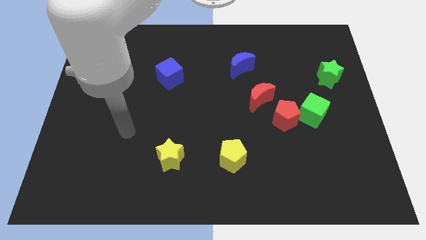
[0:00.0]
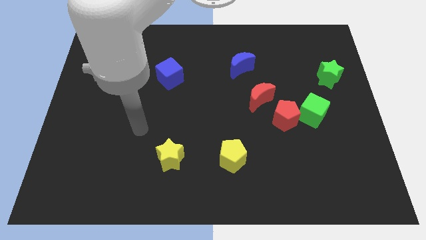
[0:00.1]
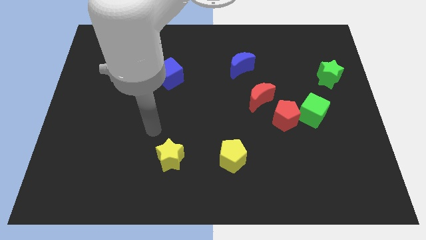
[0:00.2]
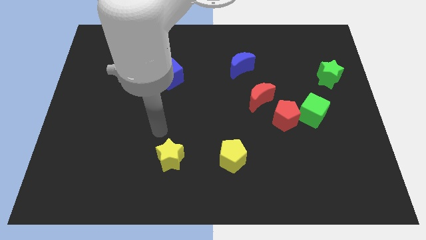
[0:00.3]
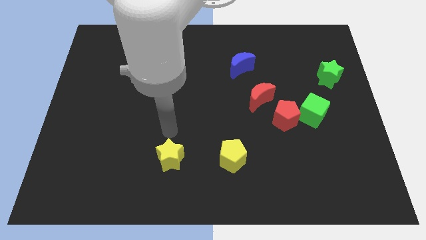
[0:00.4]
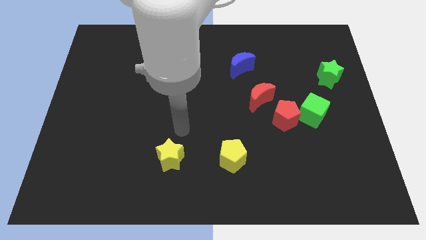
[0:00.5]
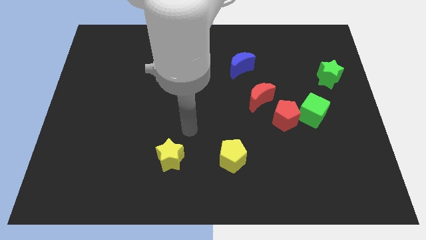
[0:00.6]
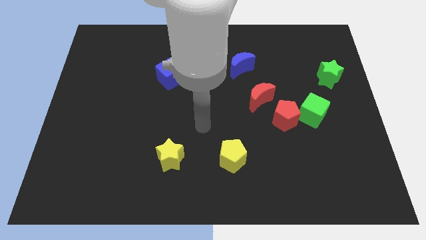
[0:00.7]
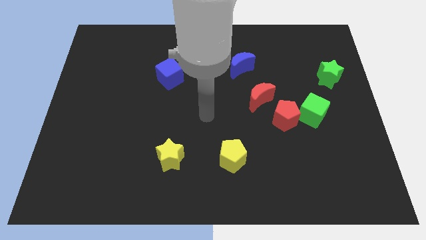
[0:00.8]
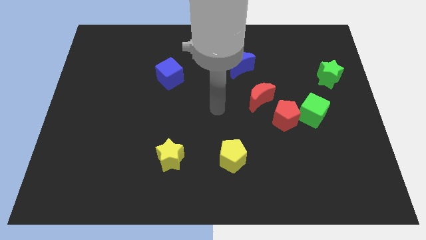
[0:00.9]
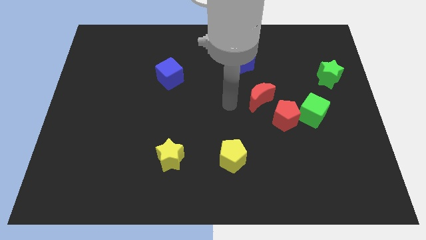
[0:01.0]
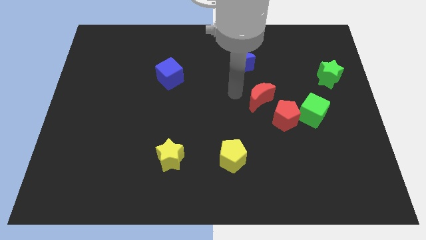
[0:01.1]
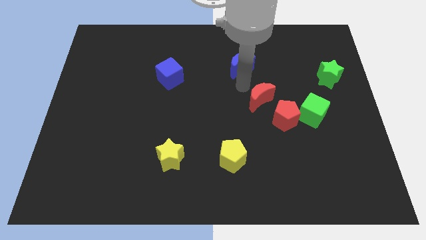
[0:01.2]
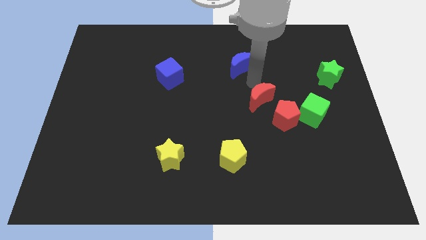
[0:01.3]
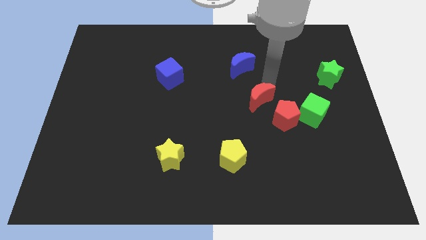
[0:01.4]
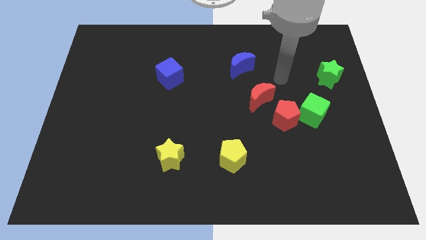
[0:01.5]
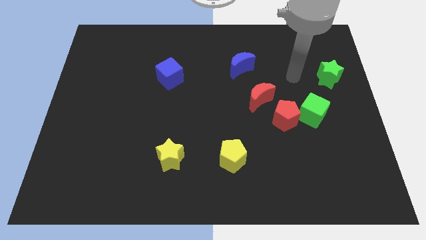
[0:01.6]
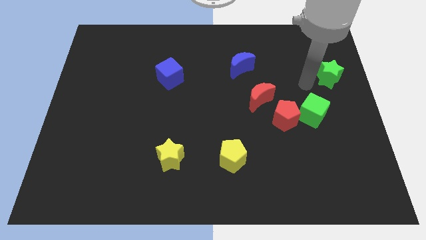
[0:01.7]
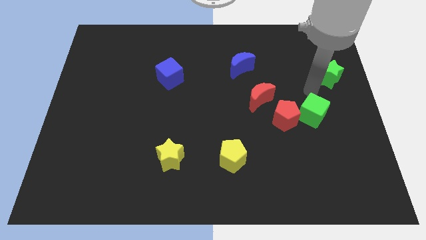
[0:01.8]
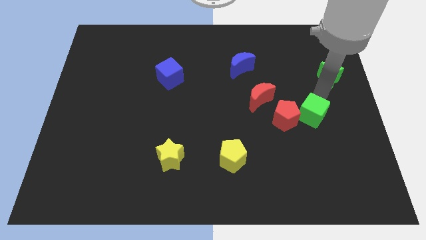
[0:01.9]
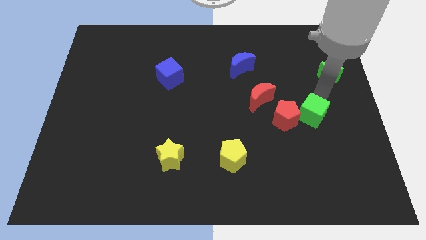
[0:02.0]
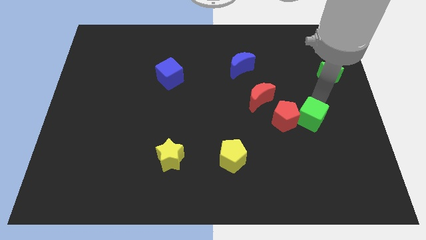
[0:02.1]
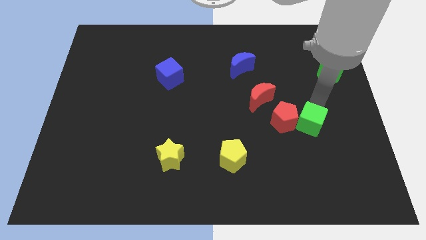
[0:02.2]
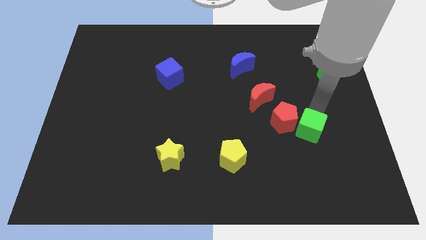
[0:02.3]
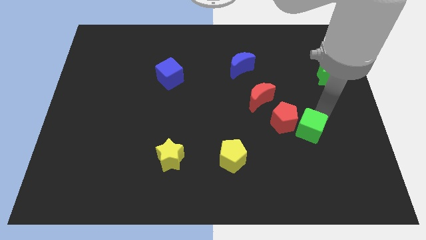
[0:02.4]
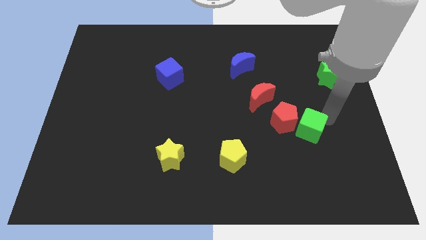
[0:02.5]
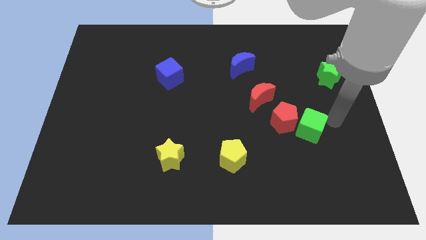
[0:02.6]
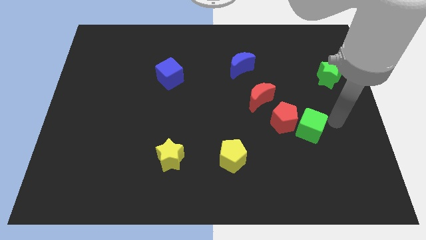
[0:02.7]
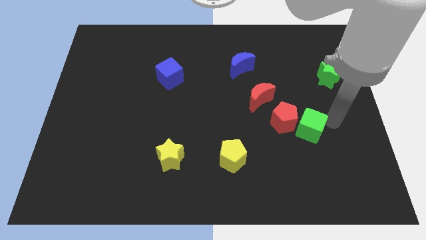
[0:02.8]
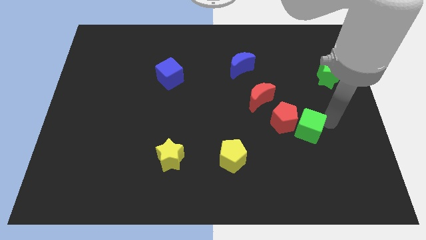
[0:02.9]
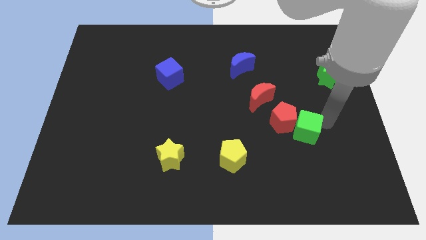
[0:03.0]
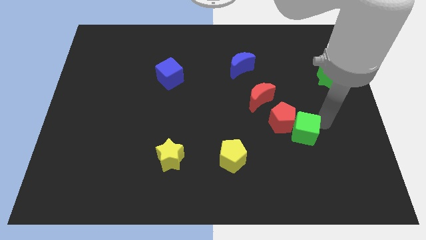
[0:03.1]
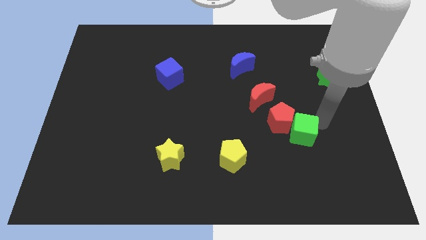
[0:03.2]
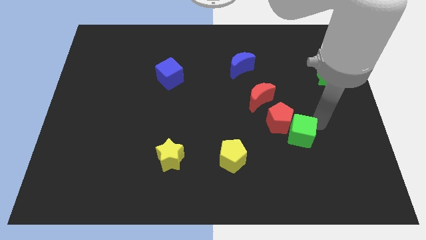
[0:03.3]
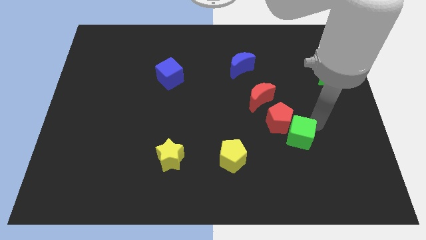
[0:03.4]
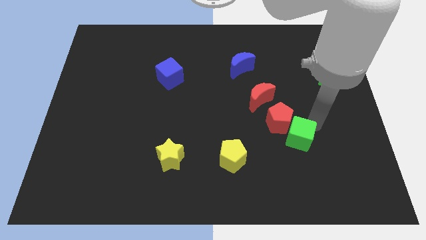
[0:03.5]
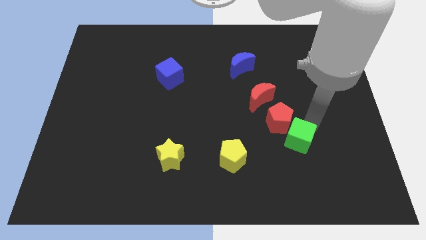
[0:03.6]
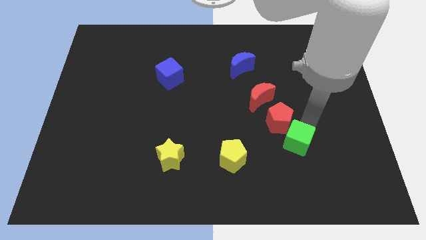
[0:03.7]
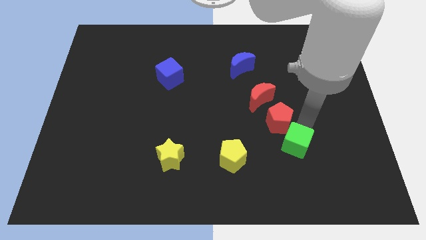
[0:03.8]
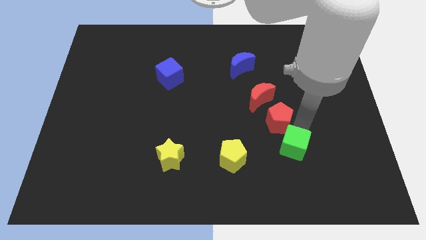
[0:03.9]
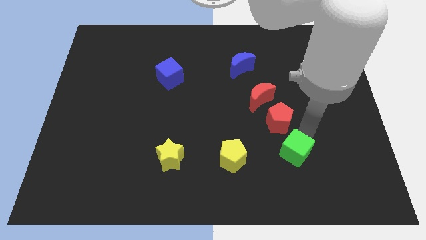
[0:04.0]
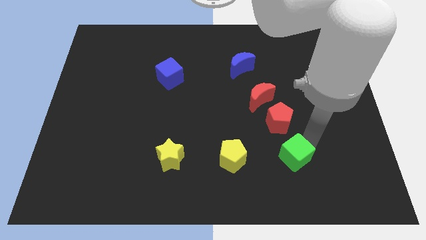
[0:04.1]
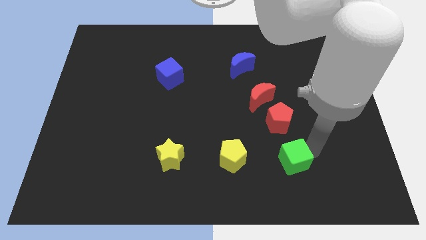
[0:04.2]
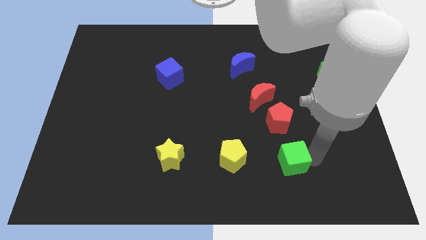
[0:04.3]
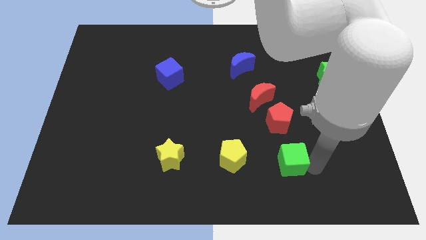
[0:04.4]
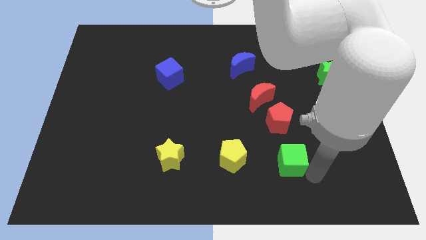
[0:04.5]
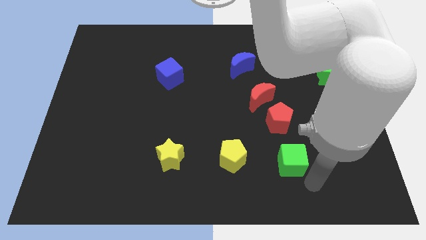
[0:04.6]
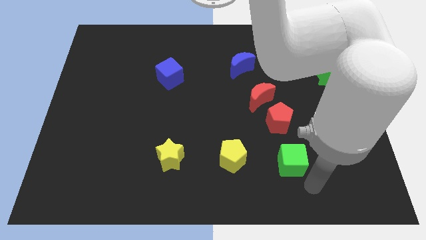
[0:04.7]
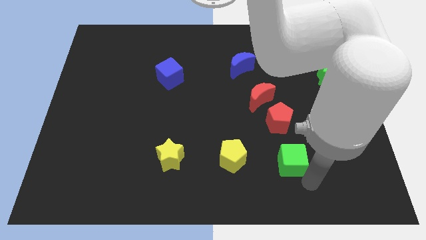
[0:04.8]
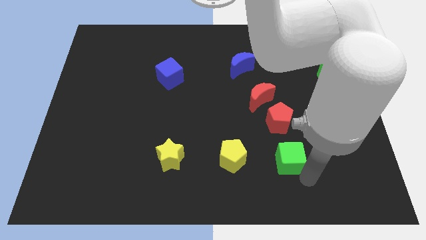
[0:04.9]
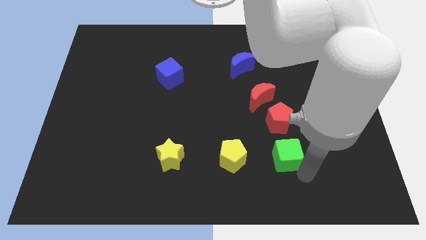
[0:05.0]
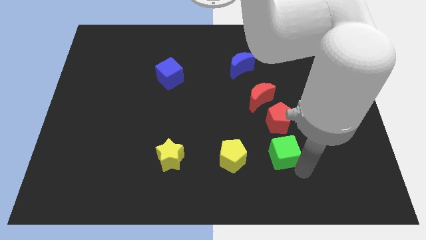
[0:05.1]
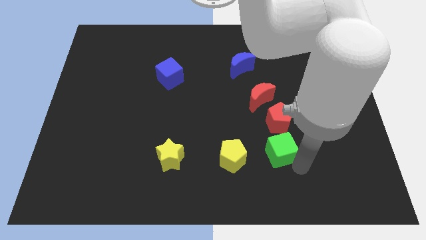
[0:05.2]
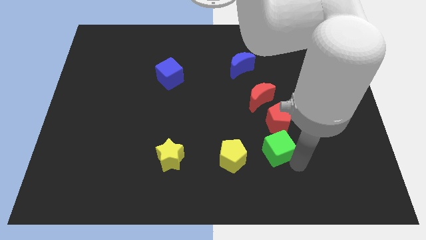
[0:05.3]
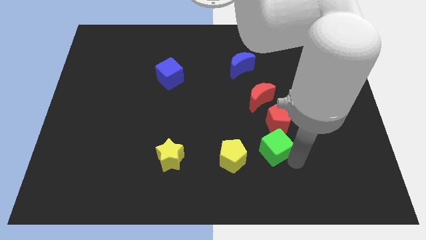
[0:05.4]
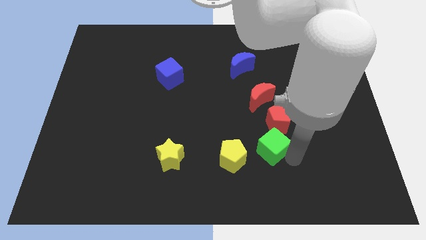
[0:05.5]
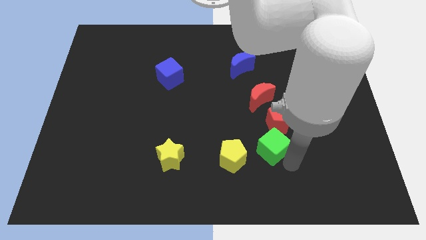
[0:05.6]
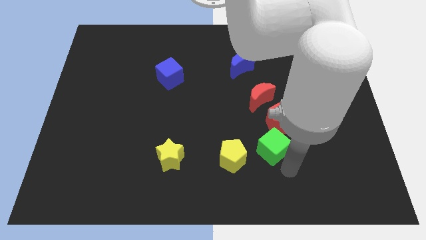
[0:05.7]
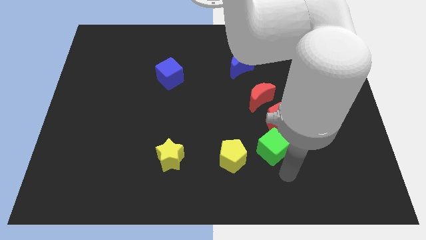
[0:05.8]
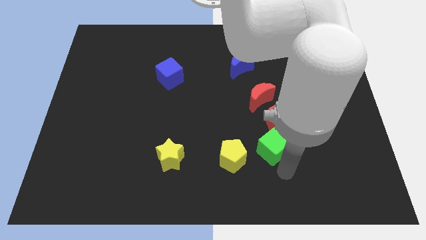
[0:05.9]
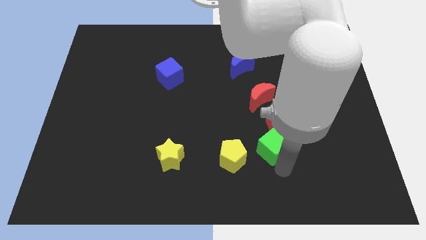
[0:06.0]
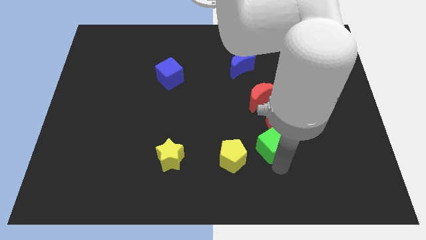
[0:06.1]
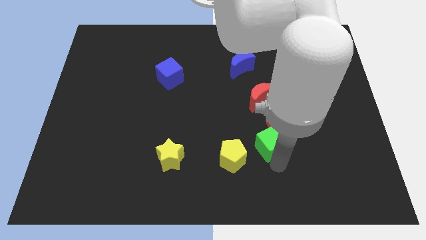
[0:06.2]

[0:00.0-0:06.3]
push the green cube slightly to the left

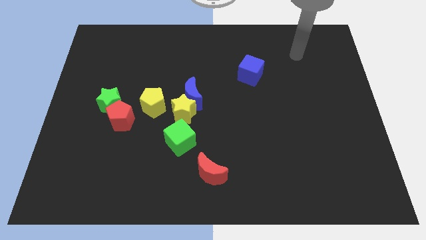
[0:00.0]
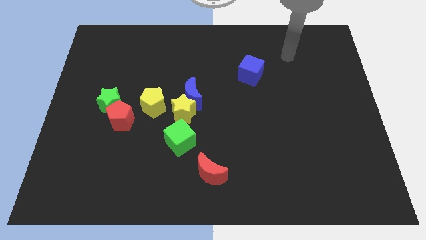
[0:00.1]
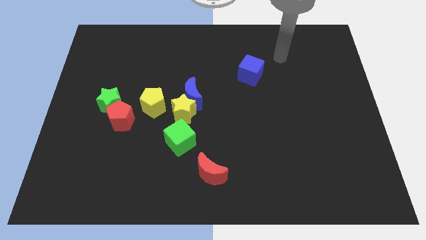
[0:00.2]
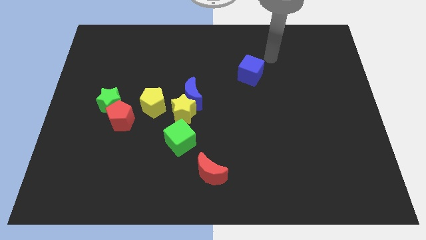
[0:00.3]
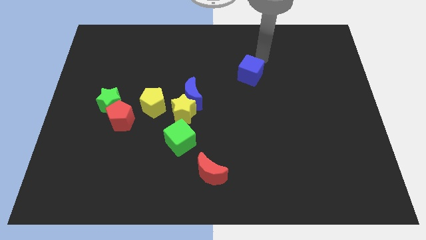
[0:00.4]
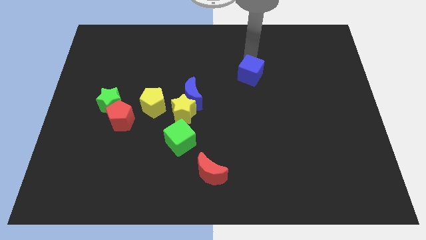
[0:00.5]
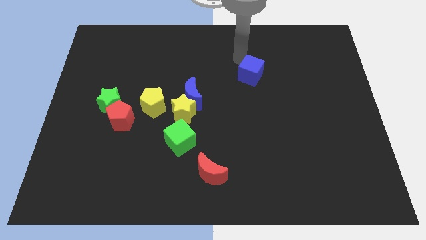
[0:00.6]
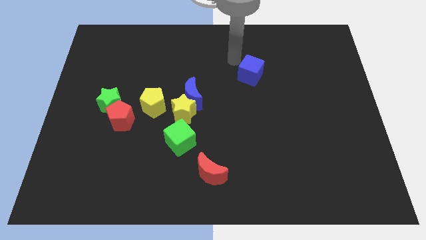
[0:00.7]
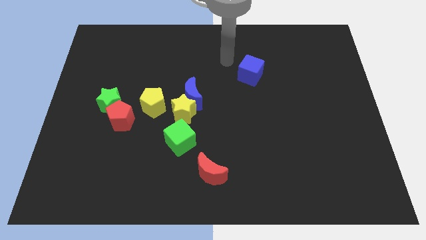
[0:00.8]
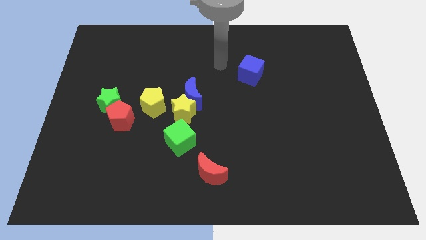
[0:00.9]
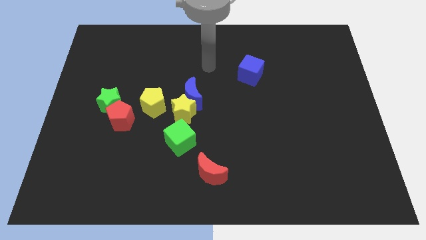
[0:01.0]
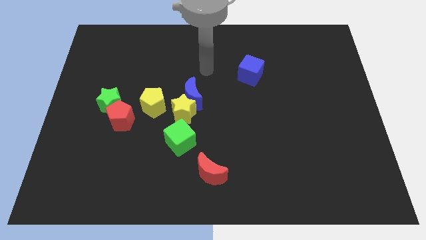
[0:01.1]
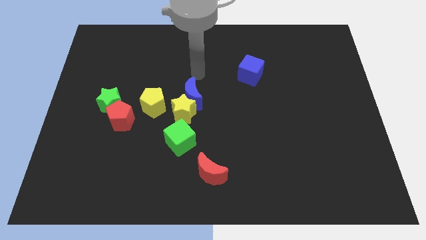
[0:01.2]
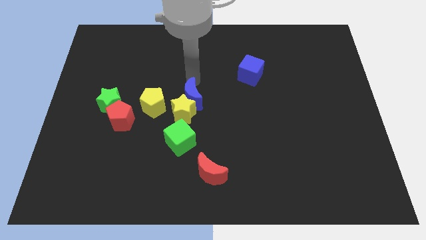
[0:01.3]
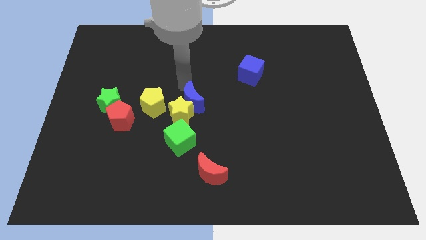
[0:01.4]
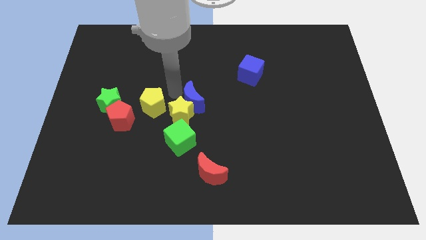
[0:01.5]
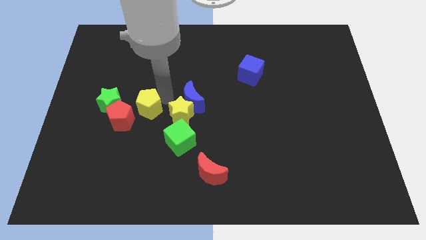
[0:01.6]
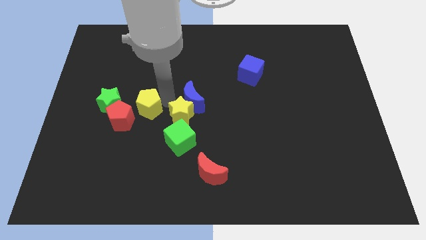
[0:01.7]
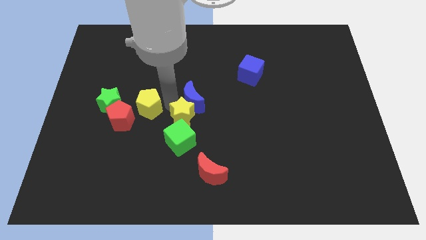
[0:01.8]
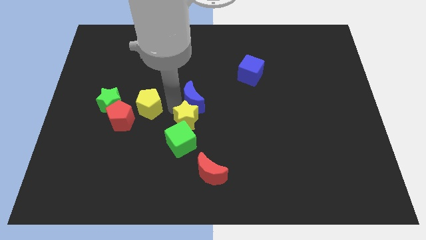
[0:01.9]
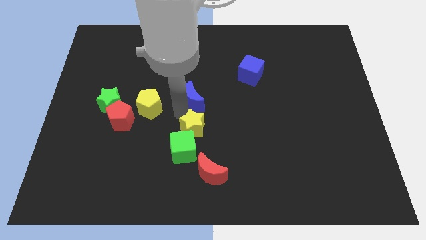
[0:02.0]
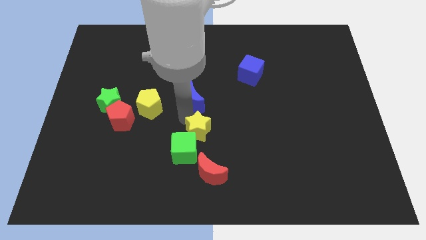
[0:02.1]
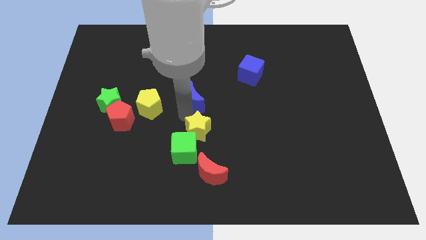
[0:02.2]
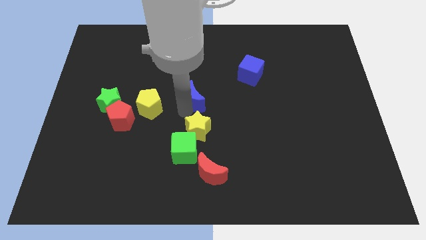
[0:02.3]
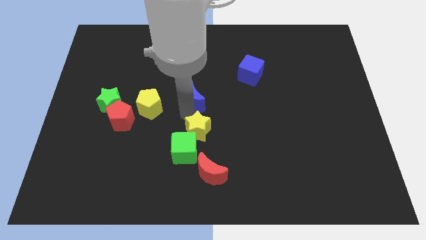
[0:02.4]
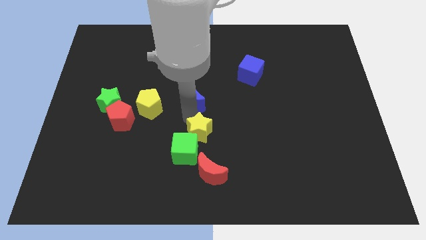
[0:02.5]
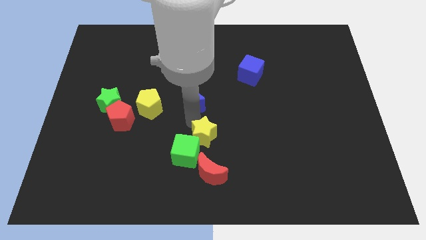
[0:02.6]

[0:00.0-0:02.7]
slightly move the yellow star downwards and then to the right
